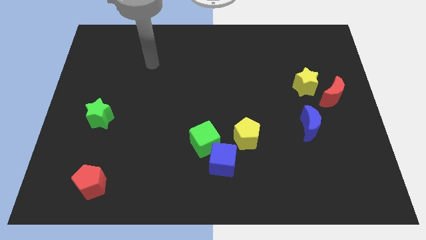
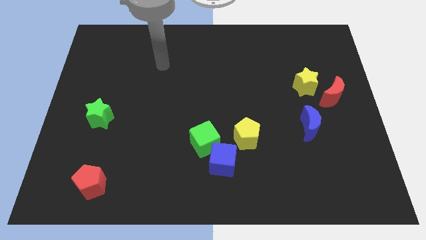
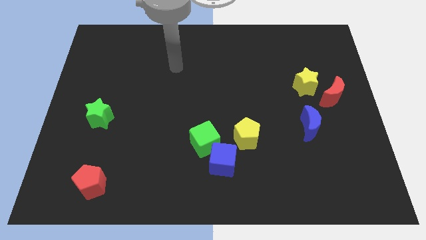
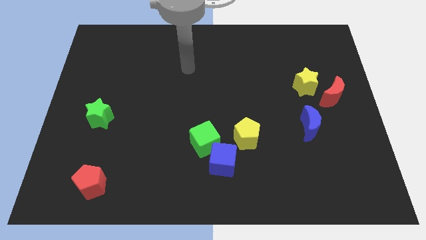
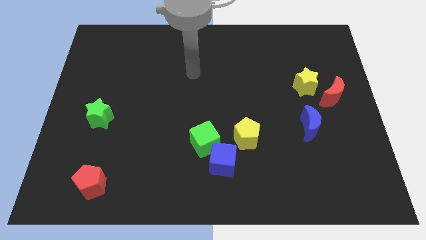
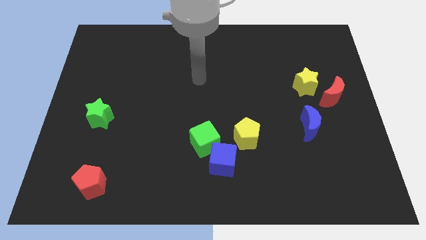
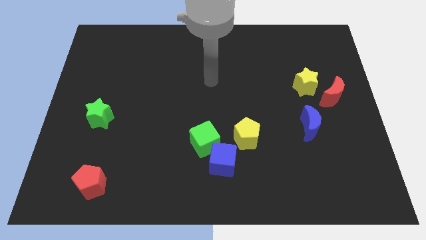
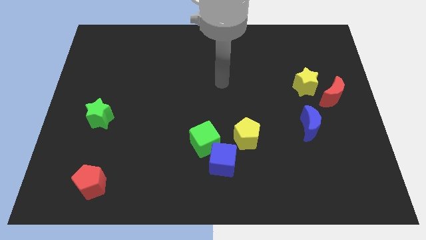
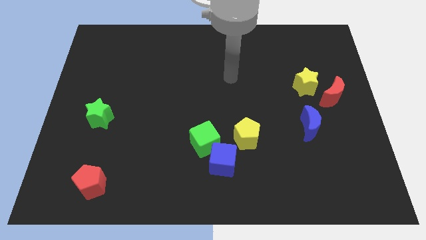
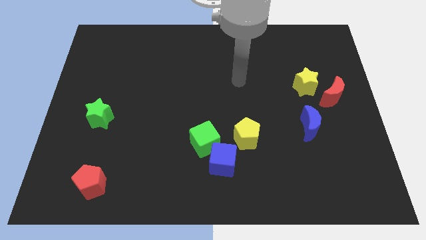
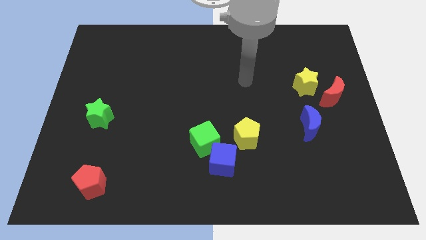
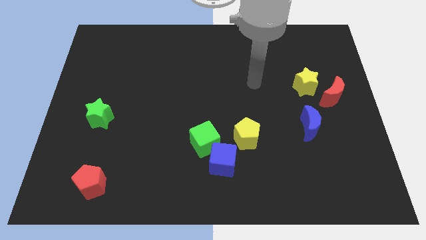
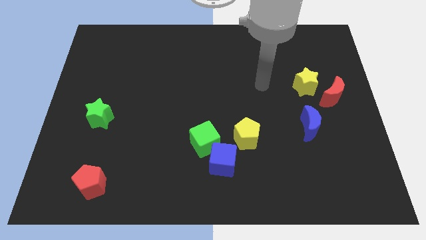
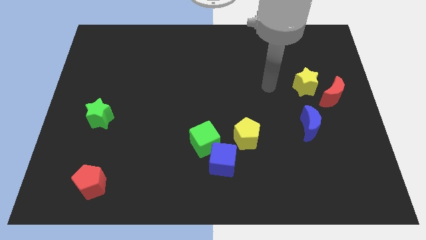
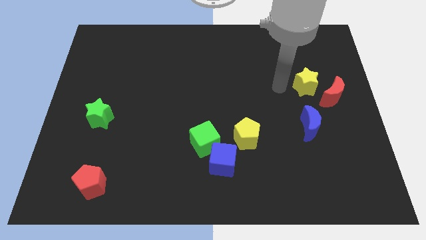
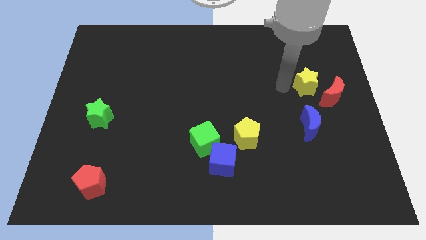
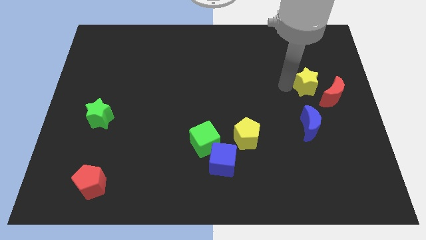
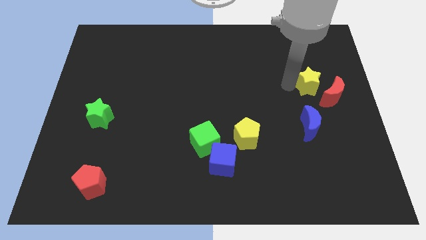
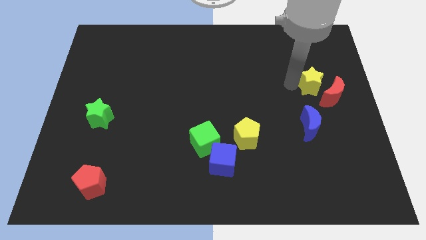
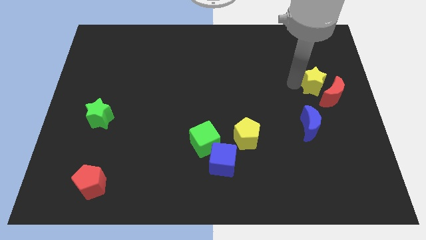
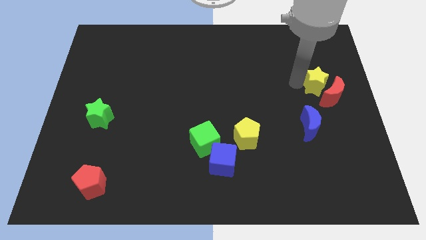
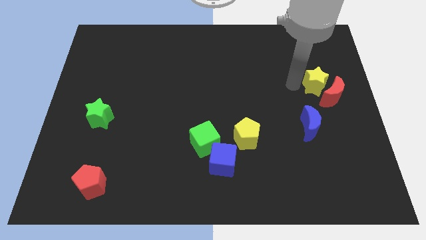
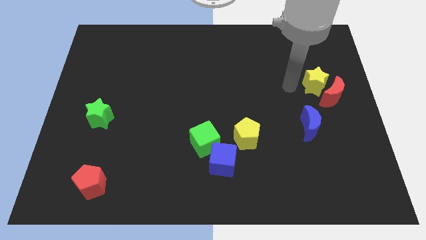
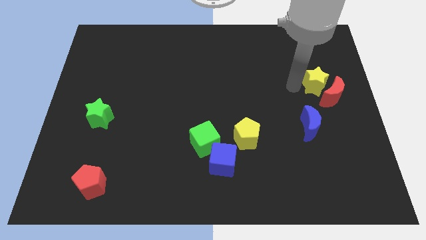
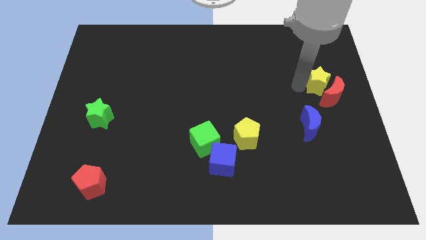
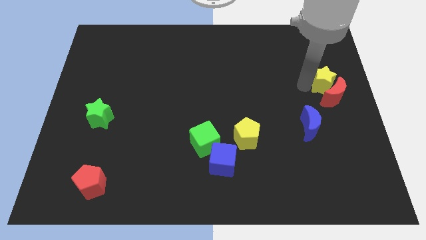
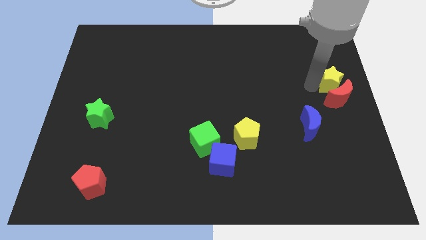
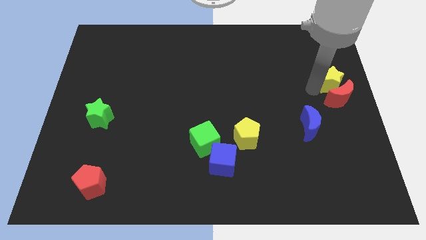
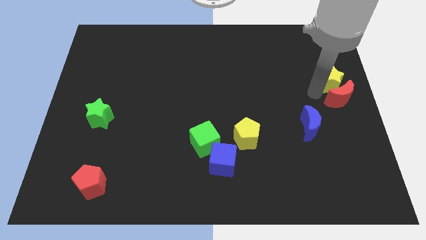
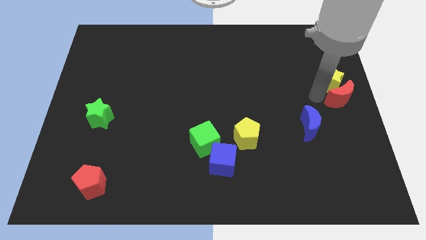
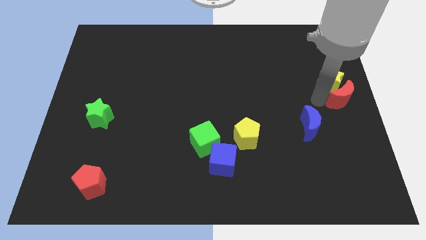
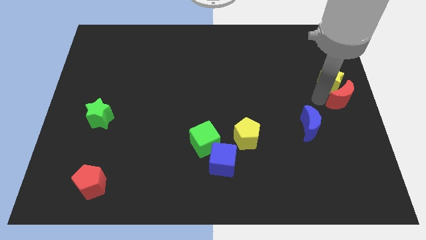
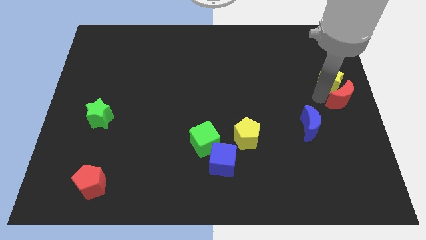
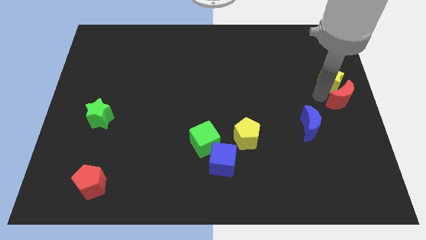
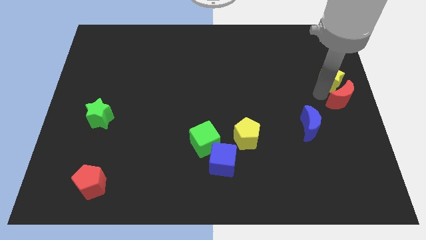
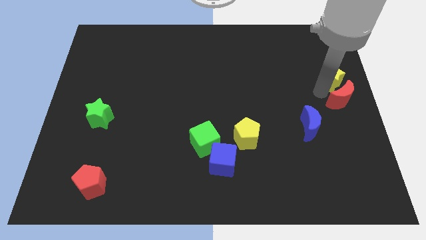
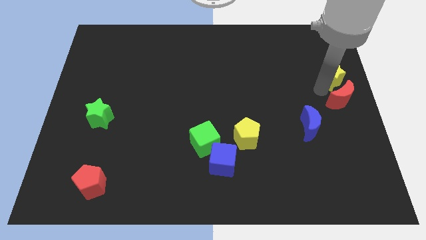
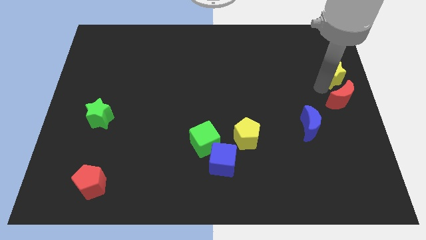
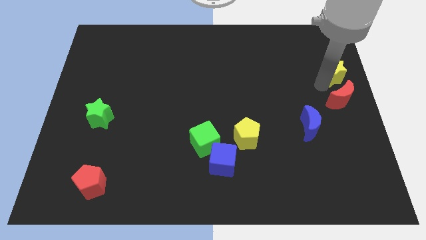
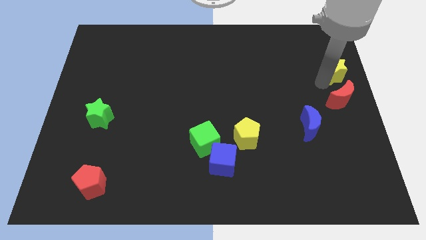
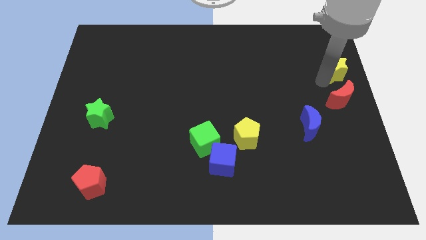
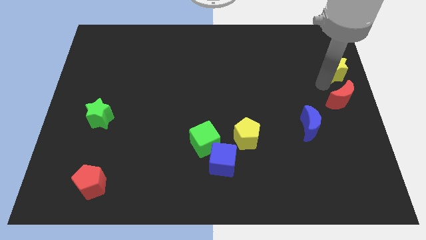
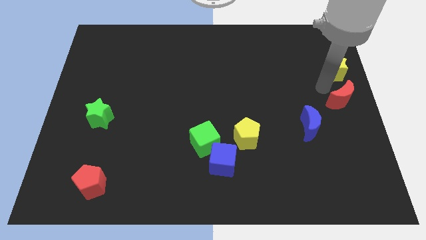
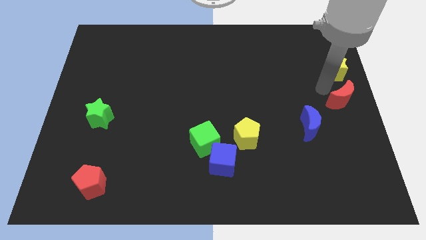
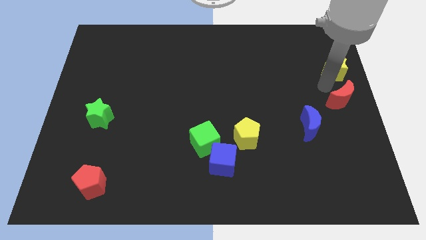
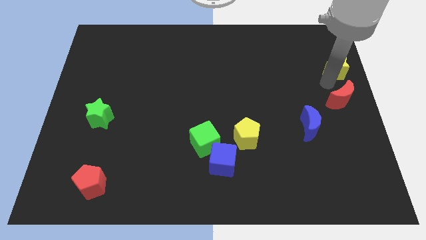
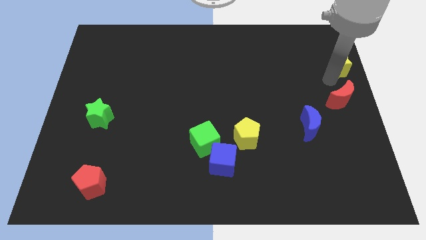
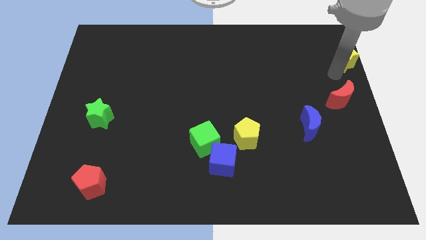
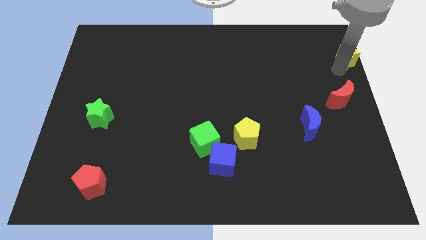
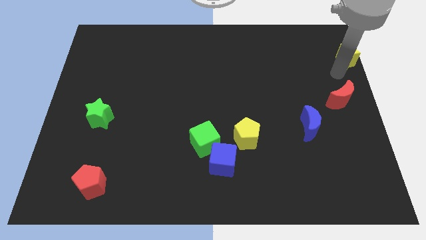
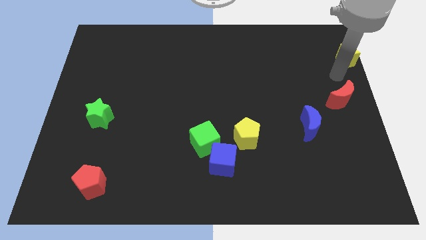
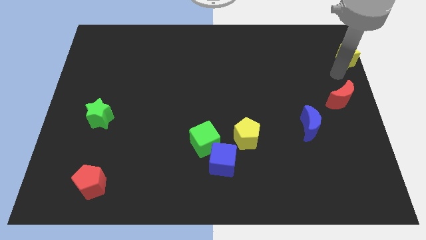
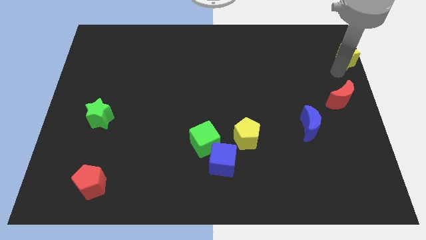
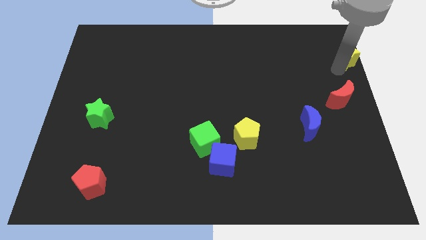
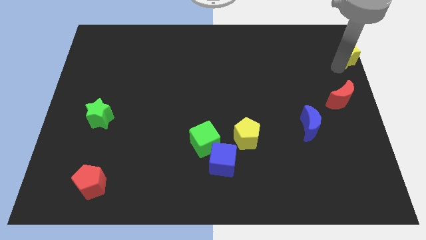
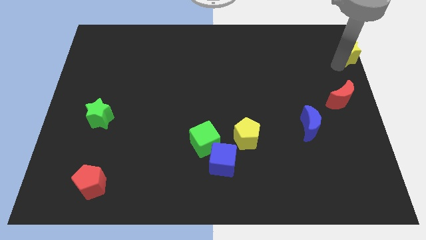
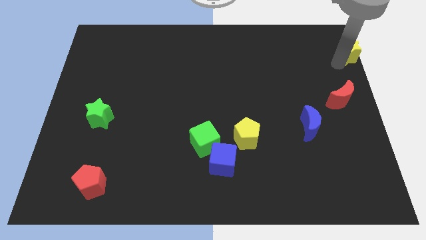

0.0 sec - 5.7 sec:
slide the yellow star to the top right

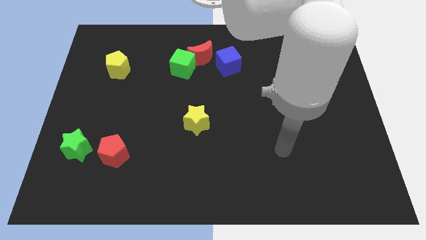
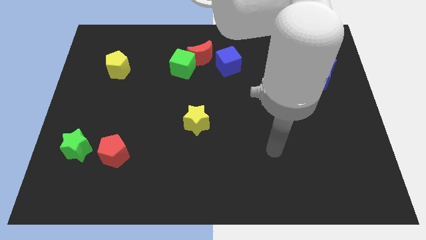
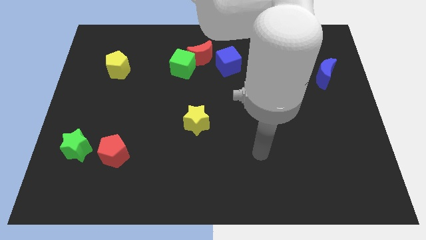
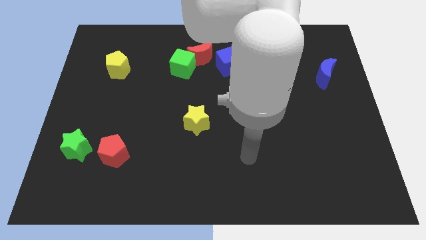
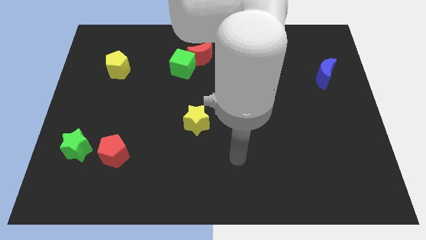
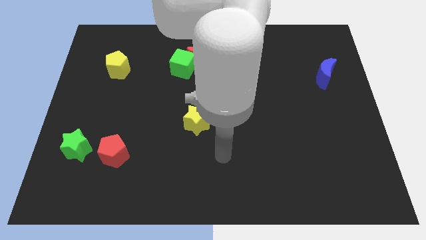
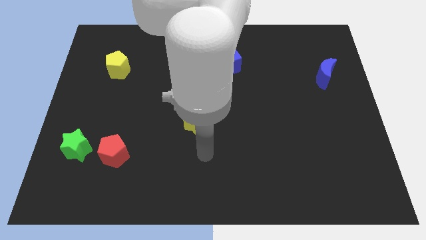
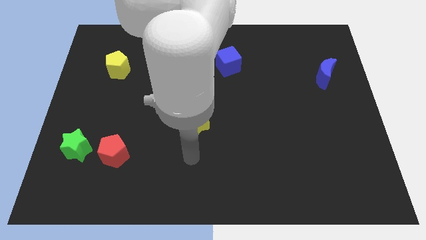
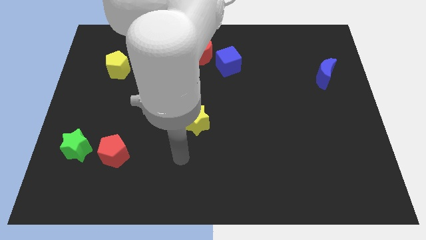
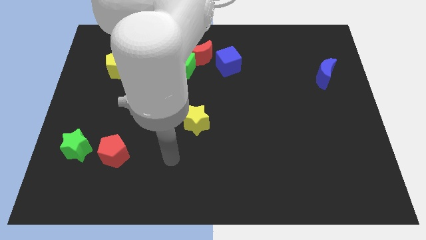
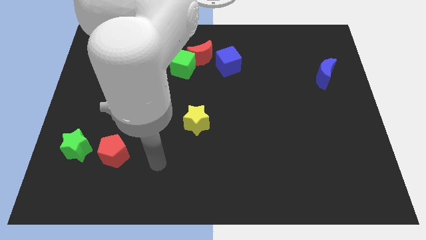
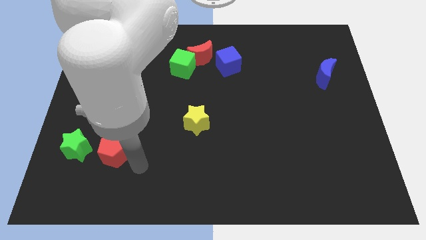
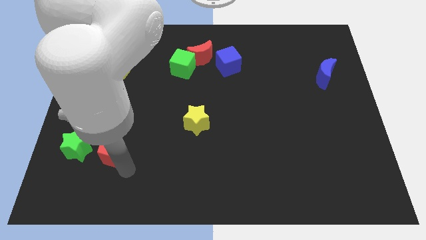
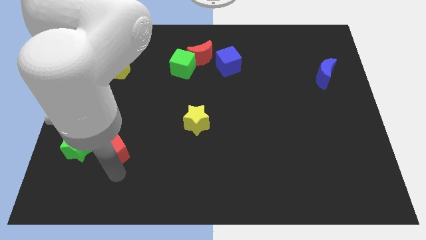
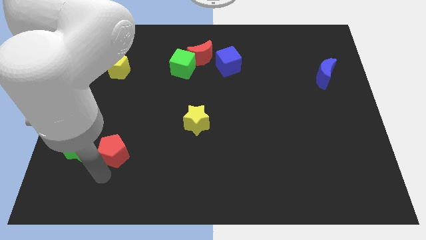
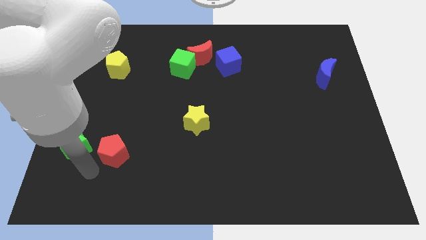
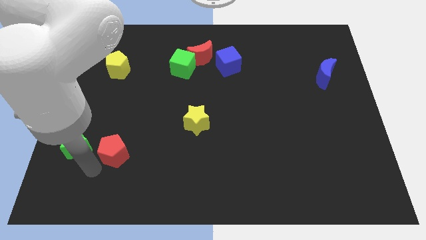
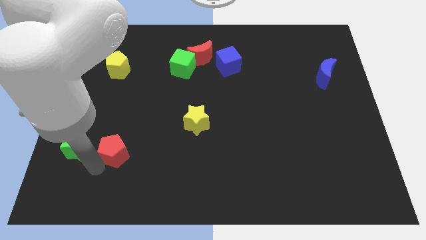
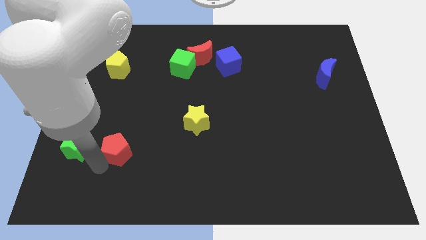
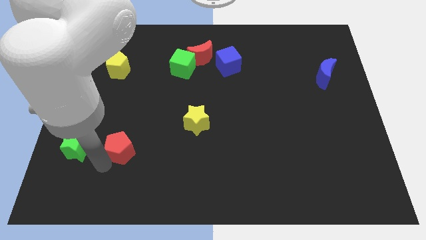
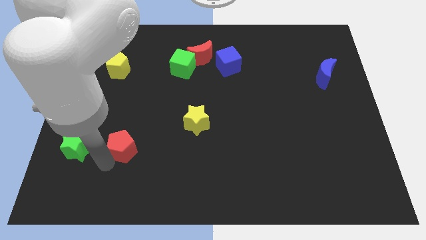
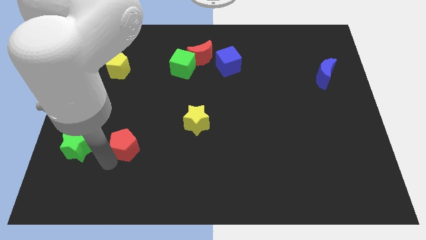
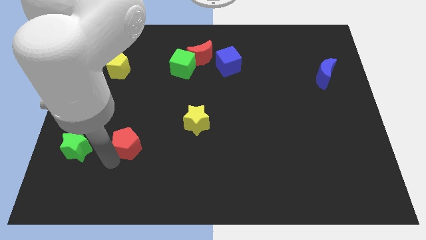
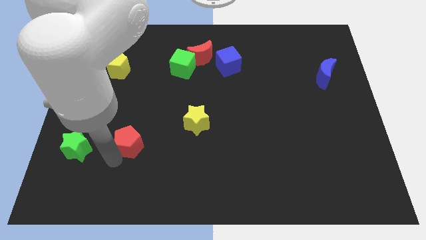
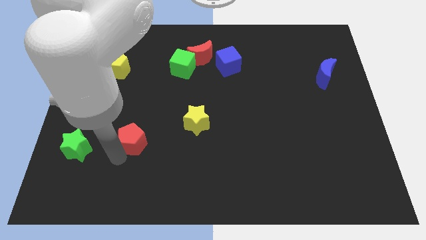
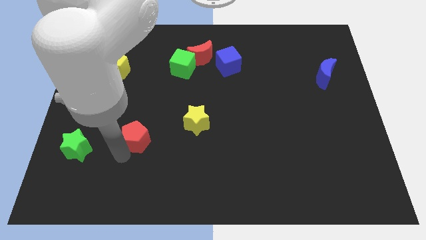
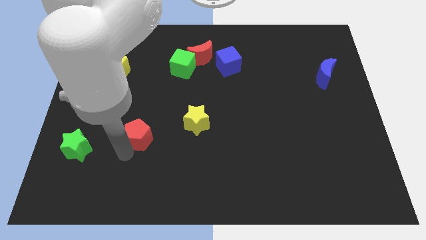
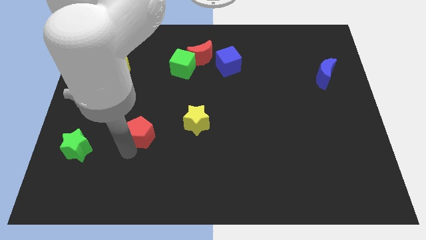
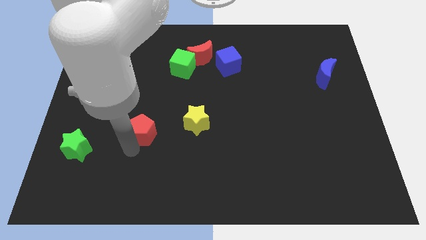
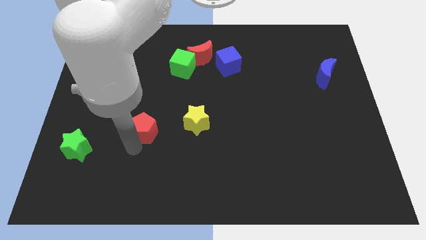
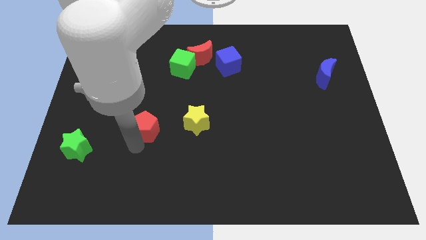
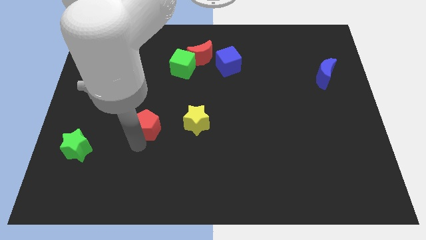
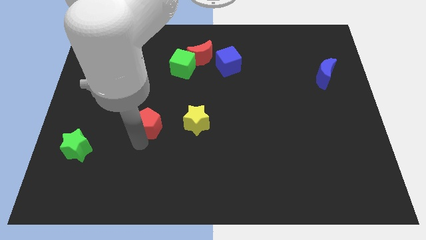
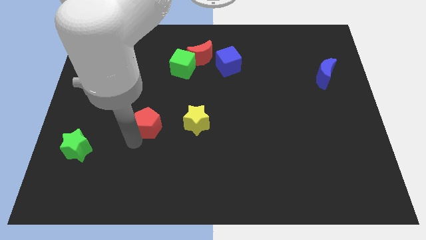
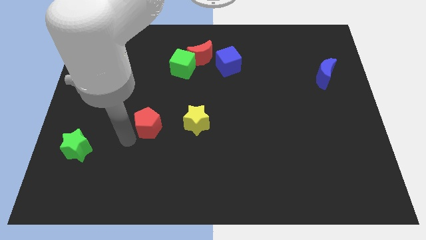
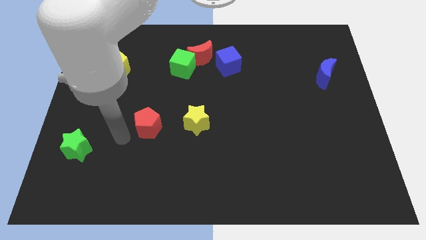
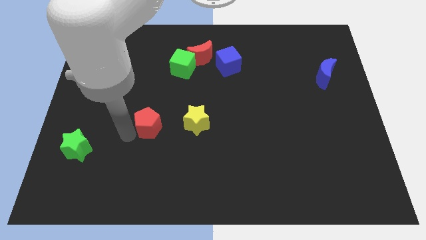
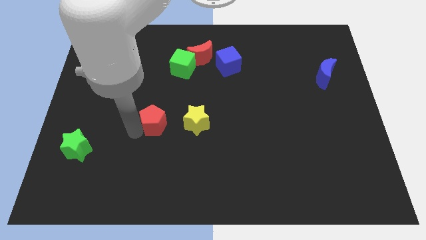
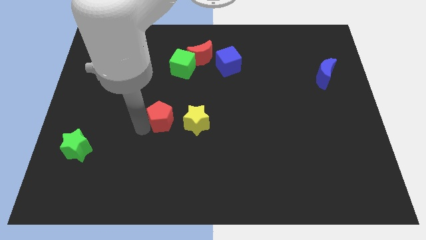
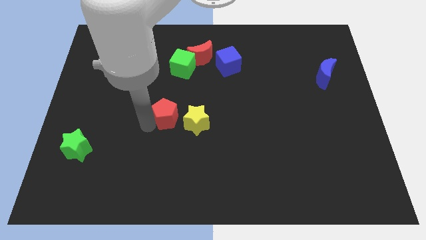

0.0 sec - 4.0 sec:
put the red pentagon to the middle
